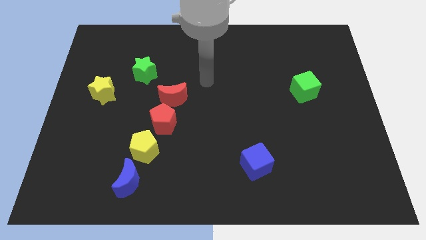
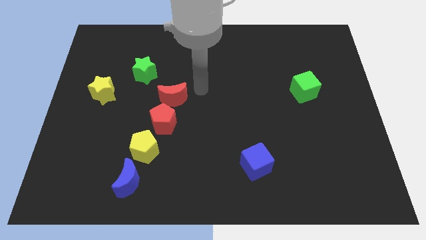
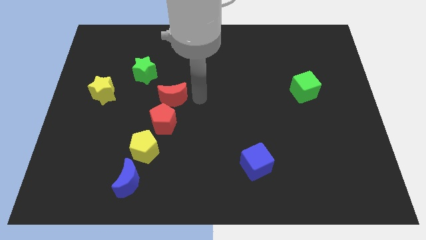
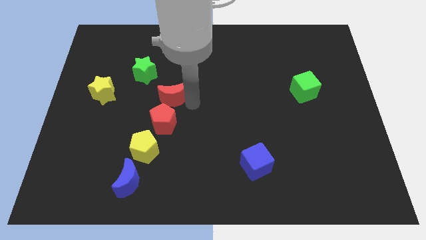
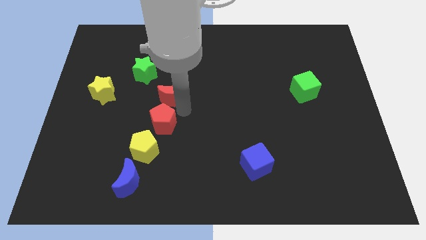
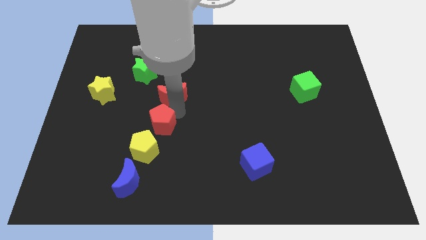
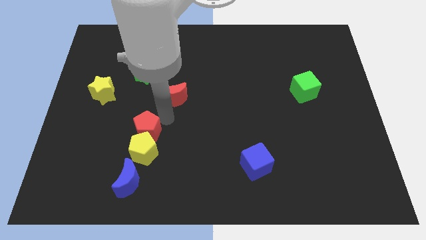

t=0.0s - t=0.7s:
separate the red moon from the red pentagon

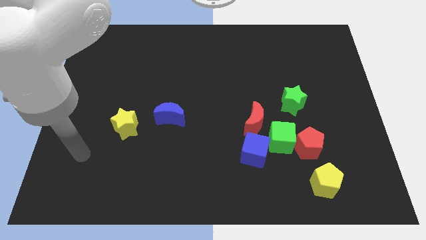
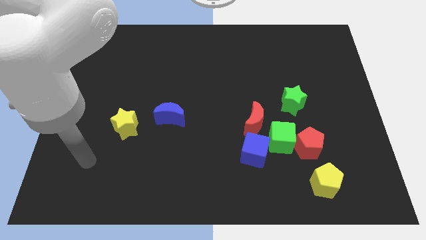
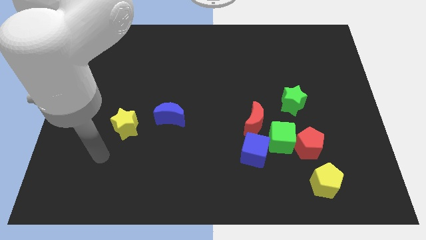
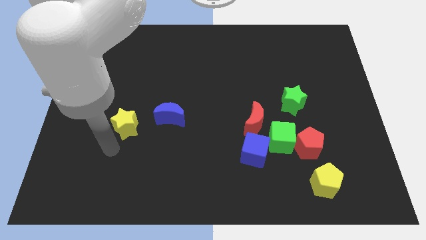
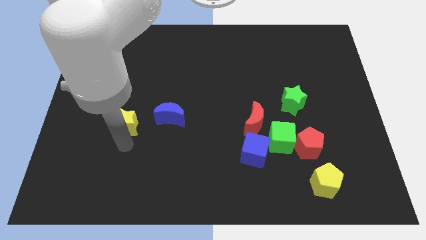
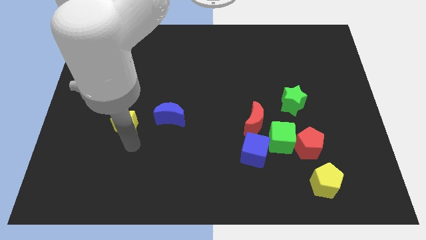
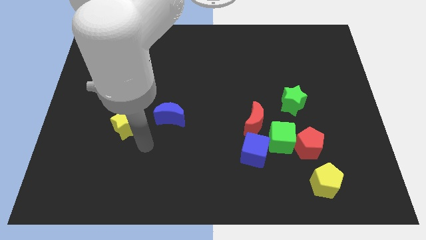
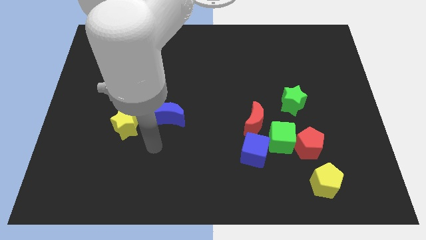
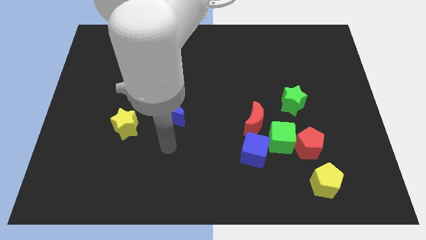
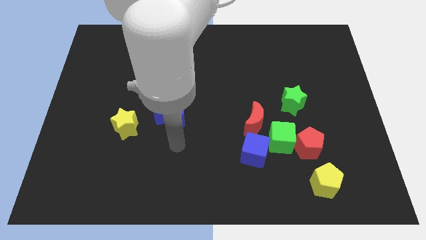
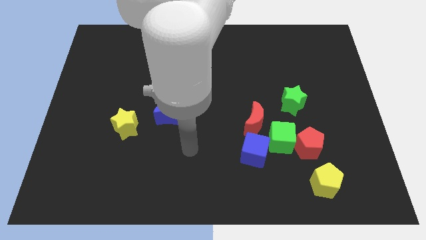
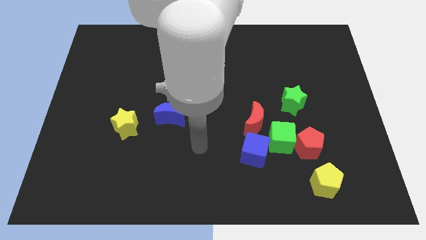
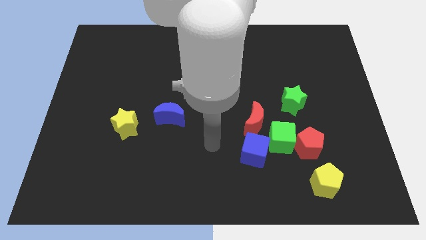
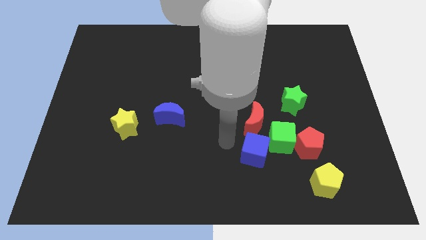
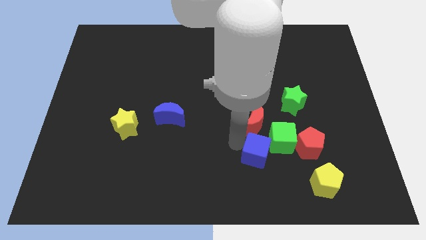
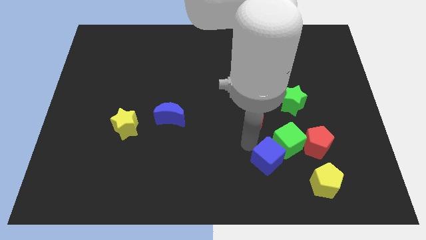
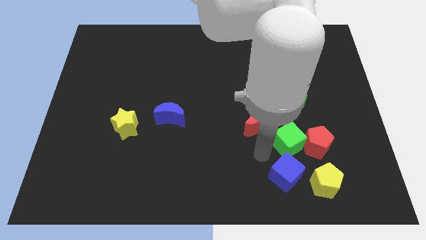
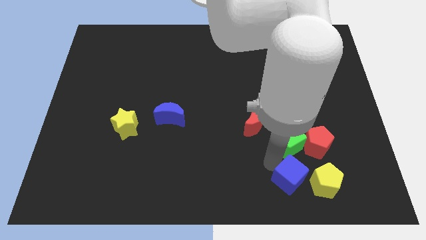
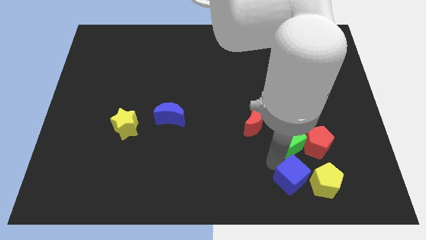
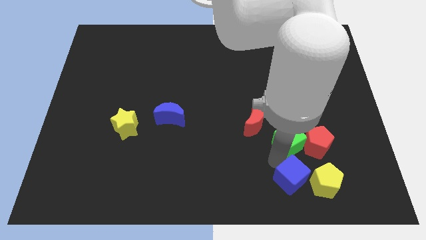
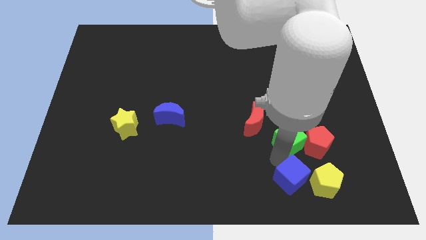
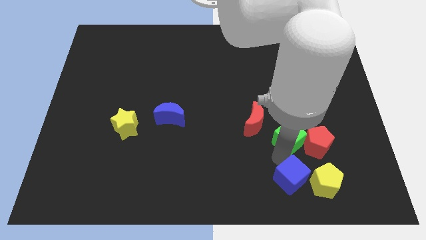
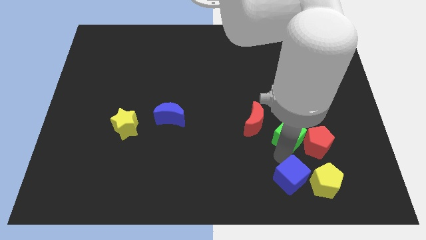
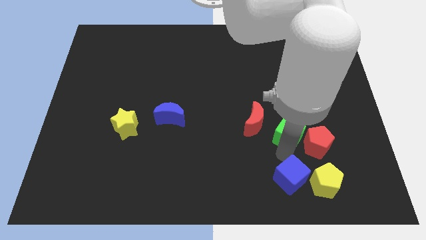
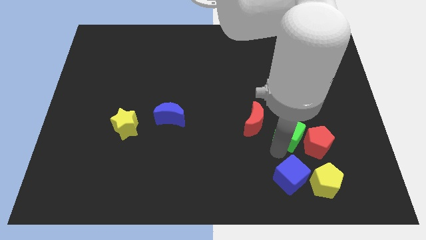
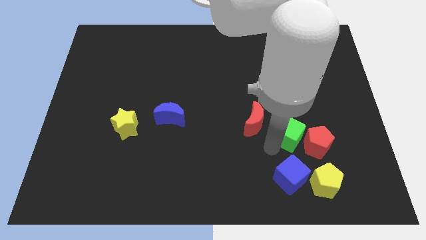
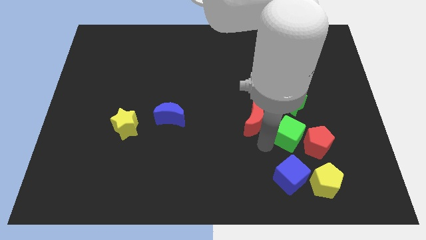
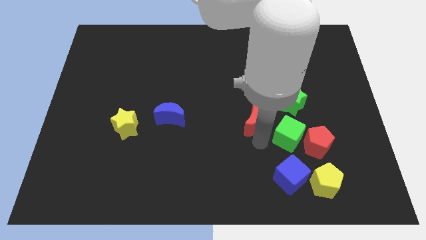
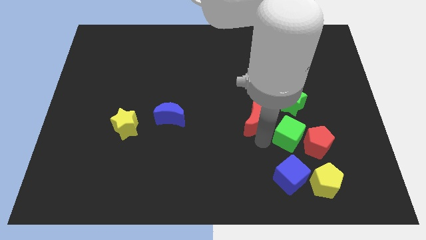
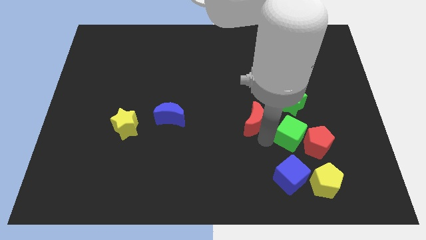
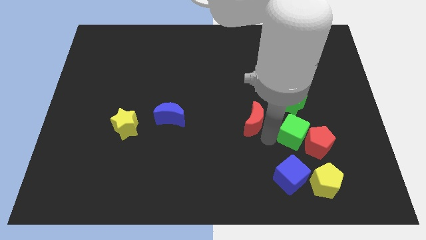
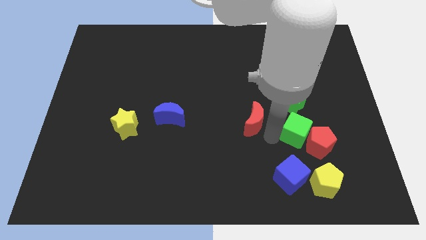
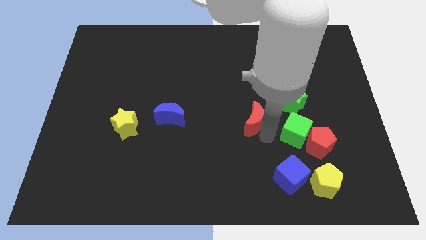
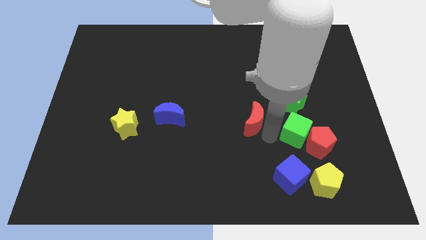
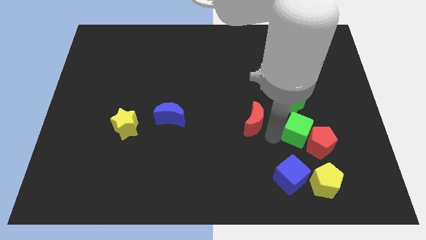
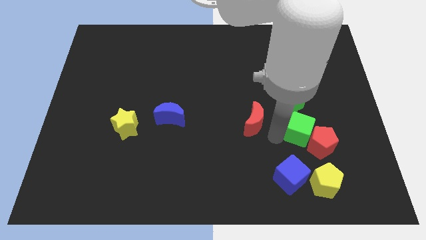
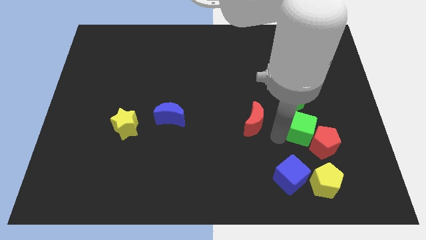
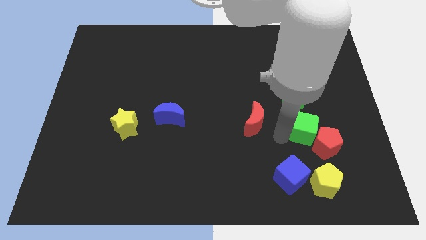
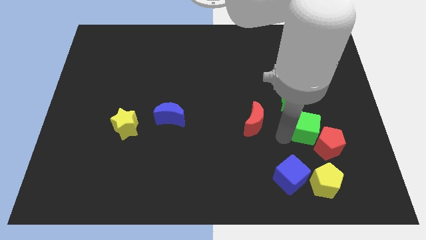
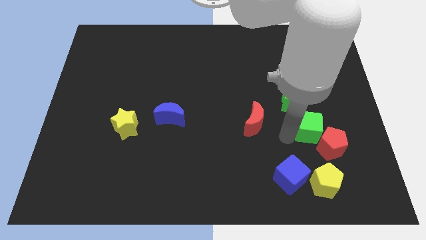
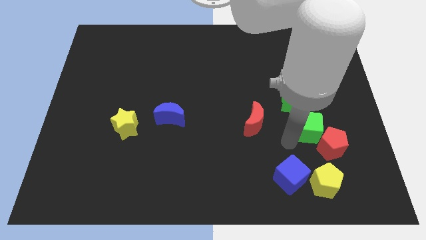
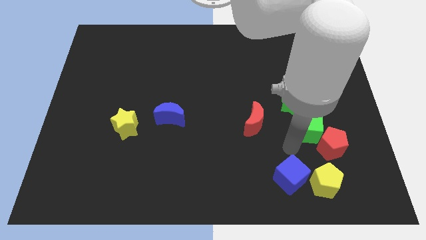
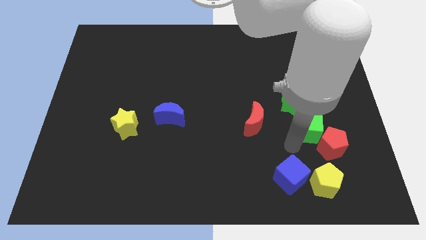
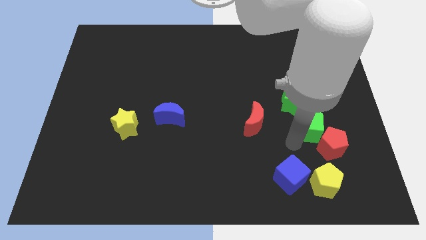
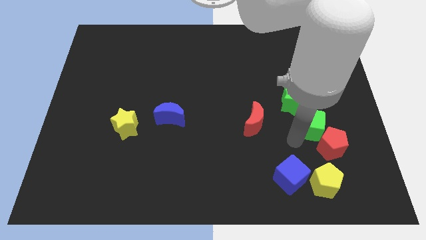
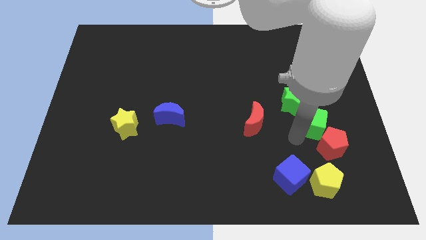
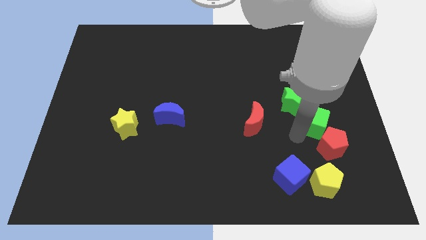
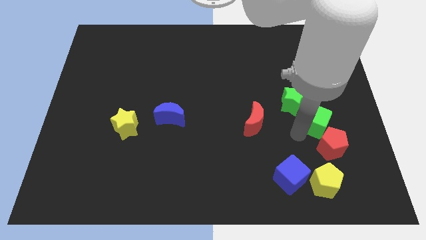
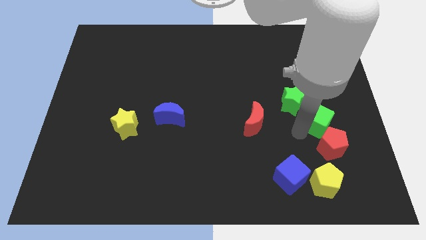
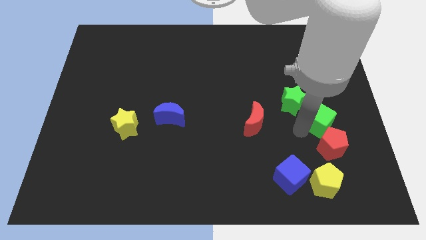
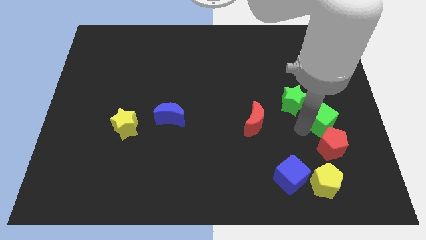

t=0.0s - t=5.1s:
separate the green cube from the red pentagon, blue cube, and red moon

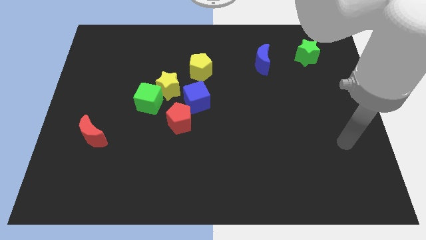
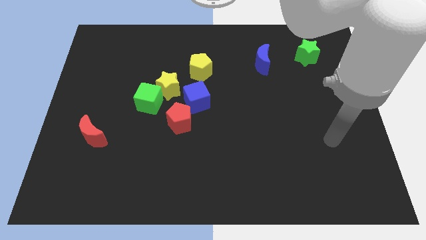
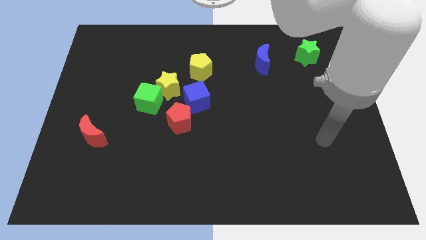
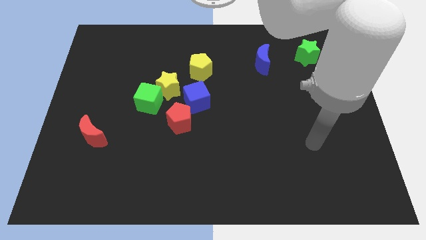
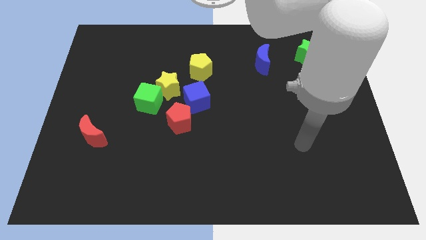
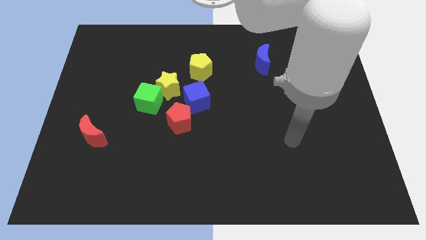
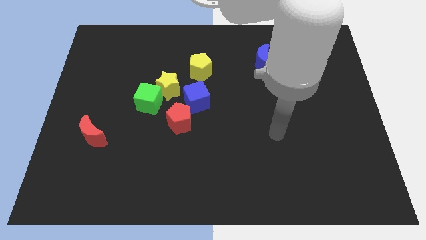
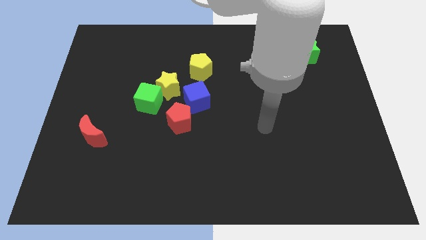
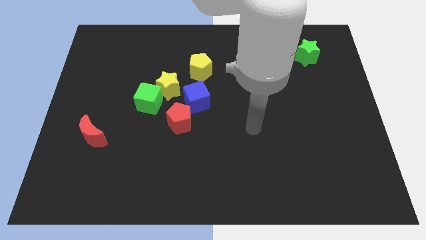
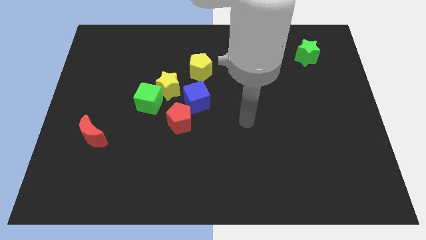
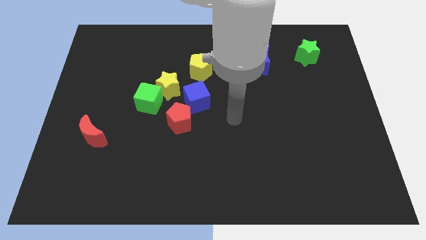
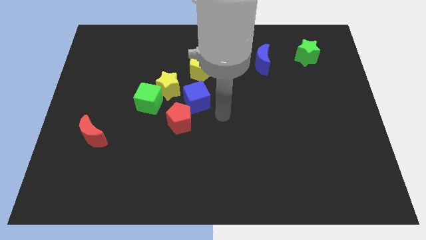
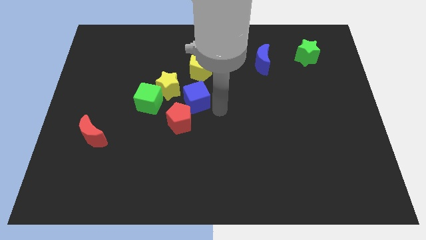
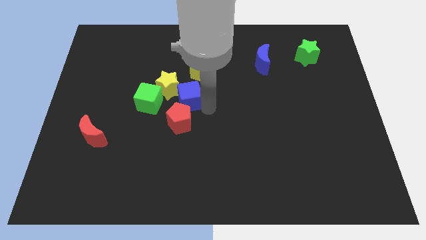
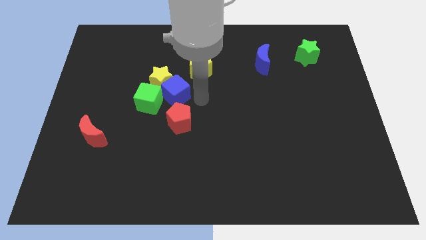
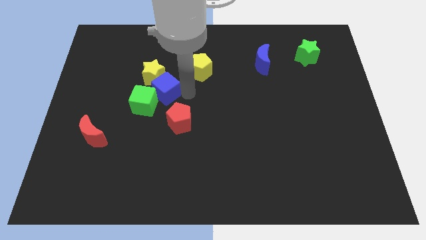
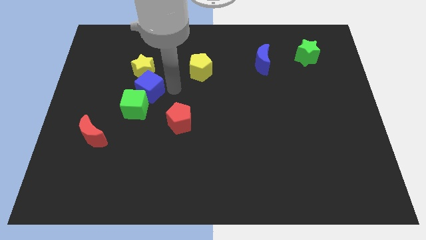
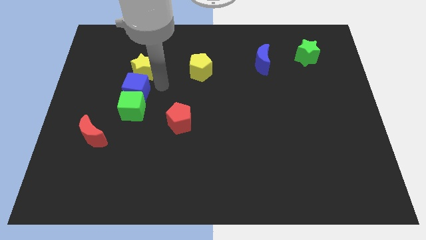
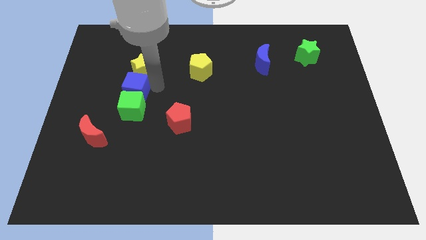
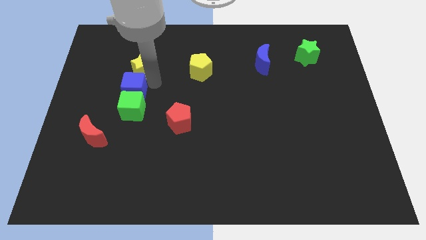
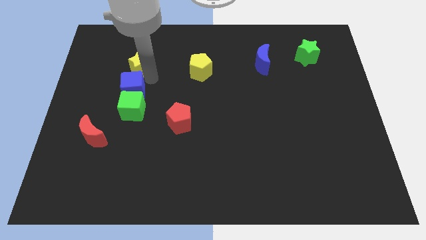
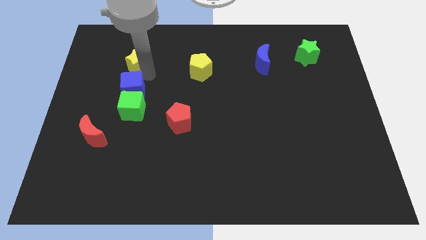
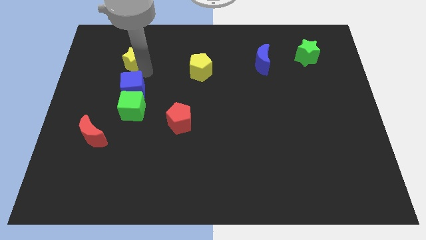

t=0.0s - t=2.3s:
separate the yellow star from the group of blocks

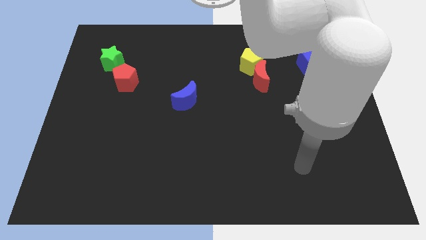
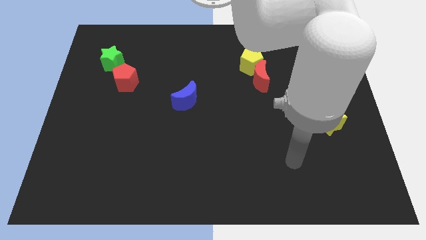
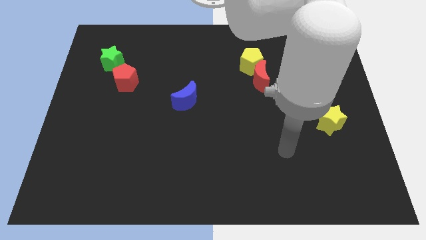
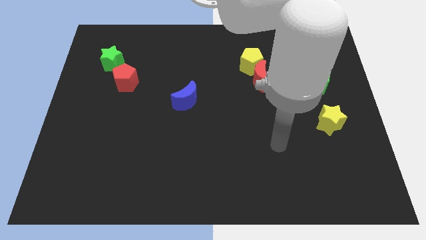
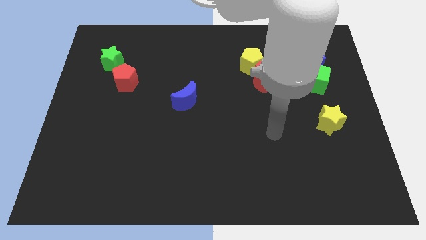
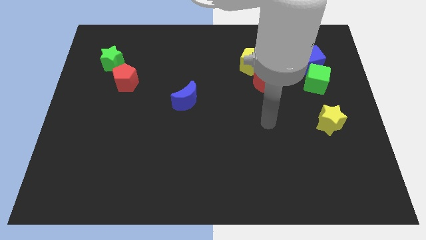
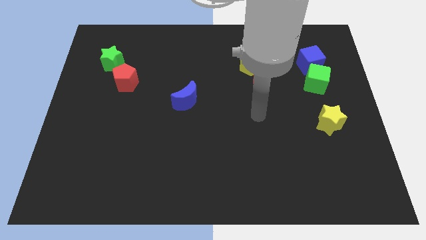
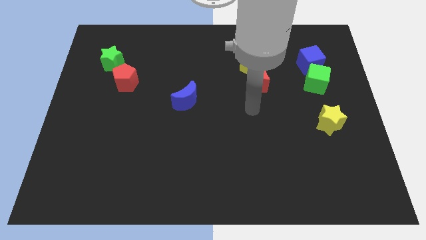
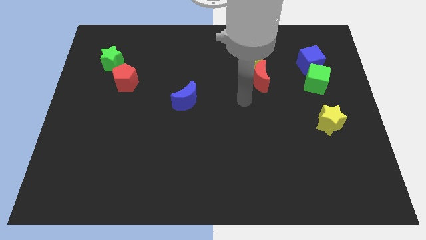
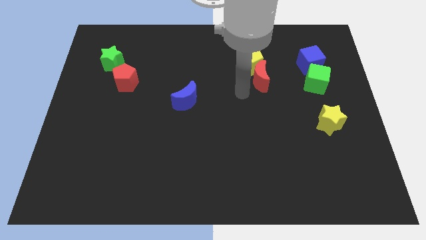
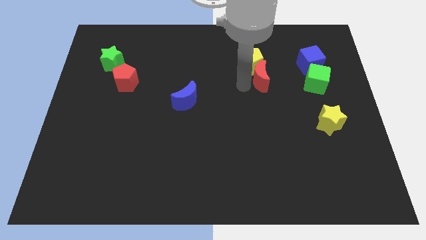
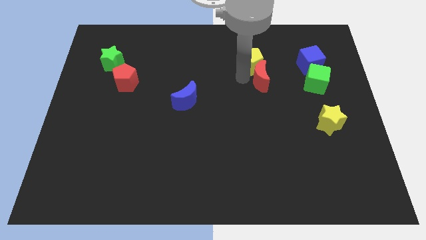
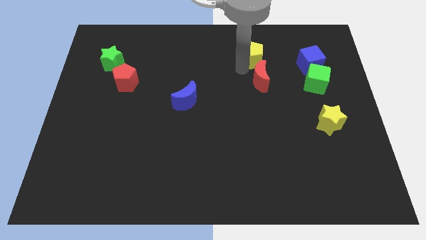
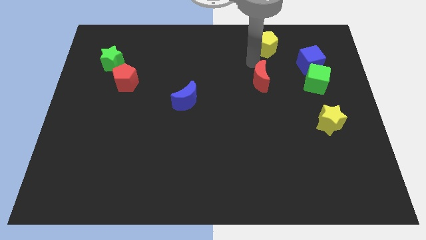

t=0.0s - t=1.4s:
separate the red moon from the yellow pentagon
